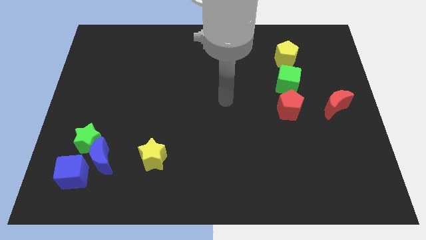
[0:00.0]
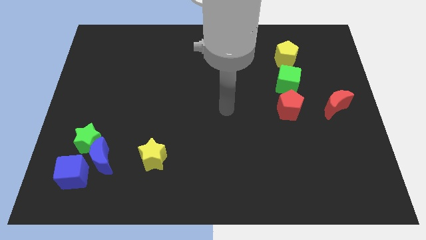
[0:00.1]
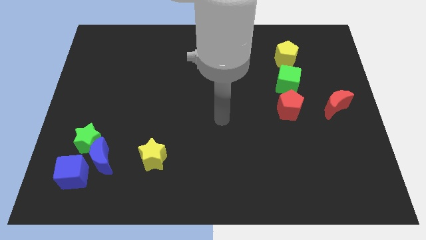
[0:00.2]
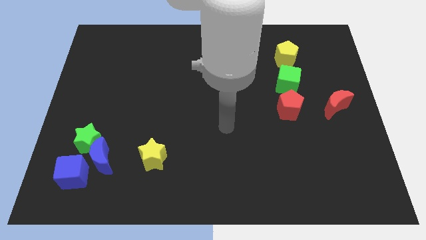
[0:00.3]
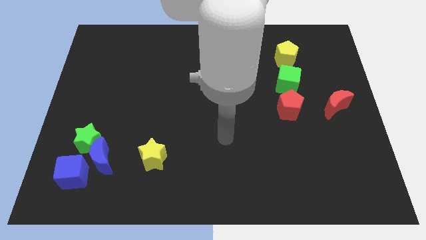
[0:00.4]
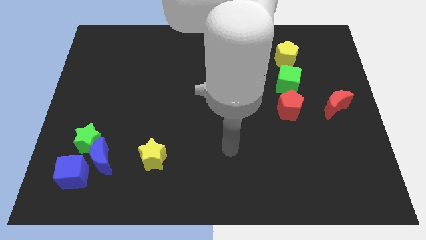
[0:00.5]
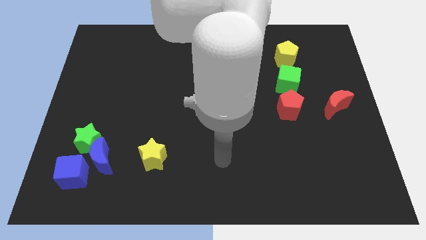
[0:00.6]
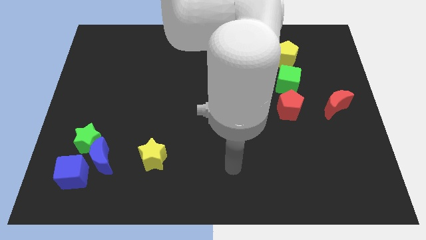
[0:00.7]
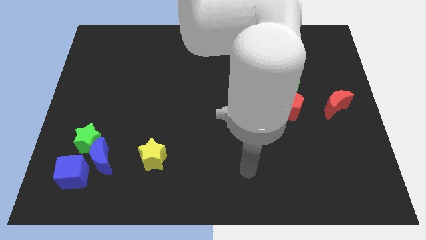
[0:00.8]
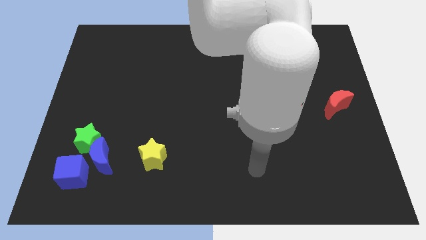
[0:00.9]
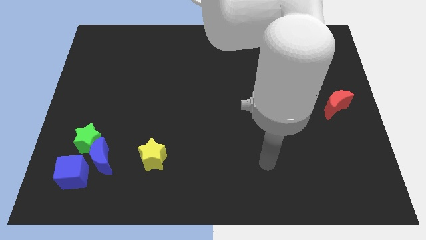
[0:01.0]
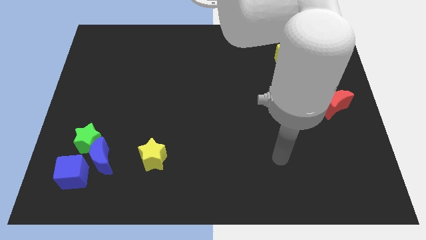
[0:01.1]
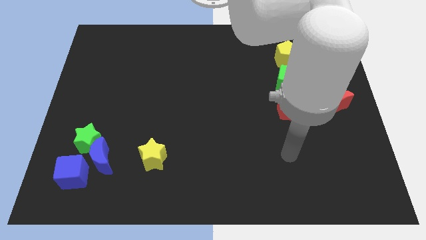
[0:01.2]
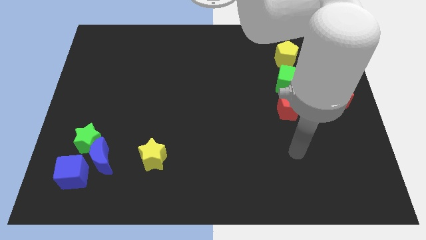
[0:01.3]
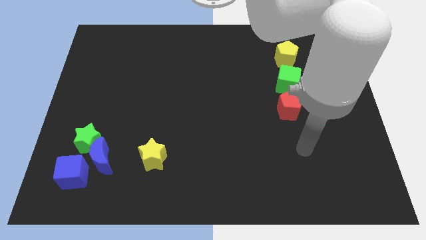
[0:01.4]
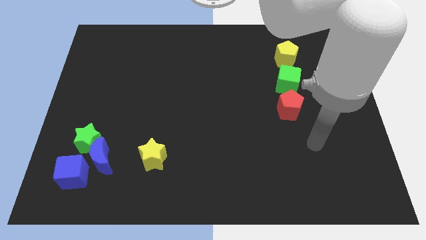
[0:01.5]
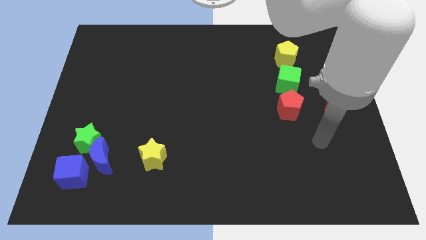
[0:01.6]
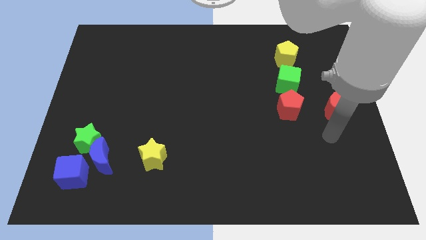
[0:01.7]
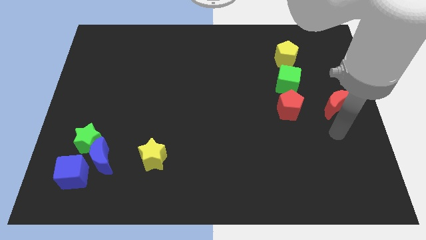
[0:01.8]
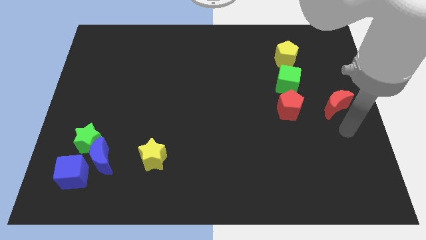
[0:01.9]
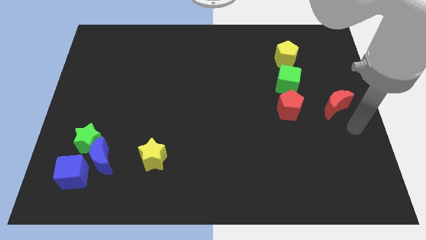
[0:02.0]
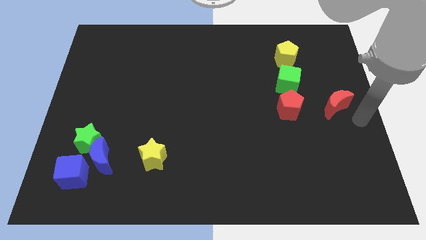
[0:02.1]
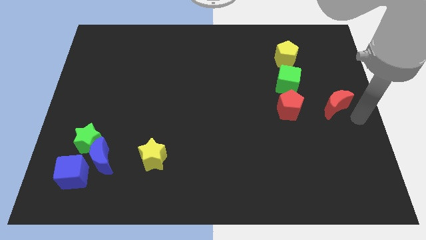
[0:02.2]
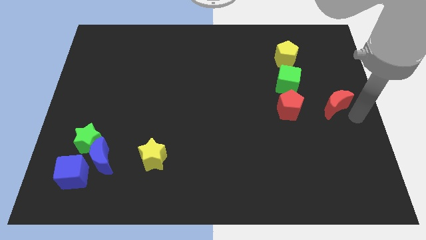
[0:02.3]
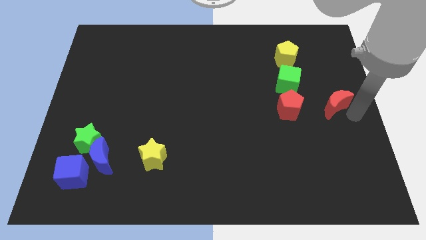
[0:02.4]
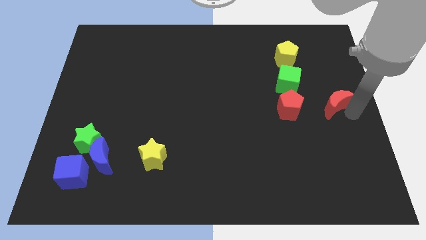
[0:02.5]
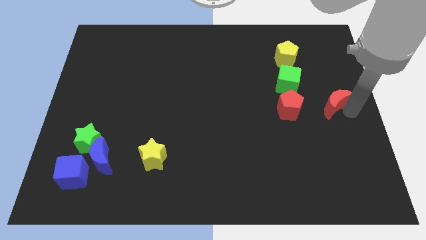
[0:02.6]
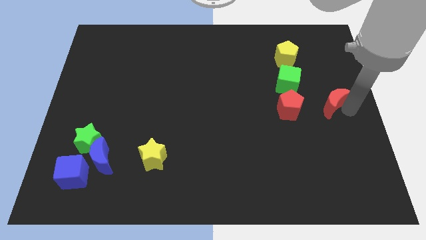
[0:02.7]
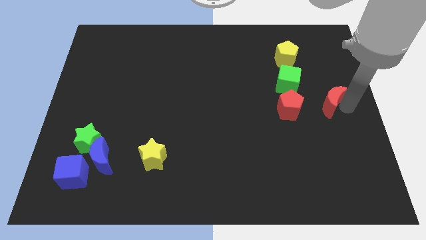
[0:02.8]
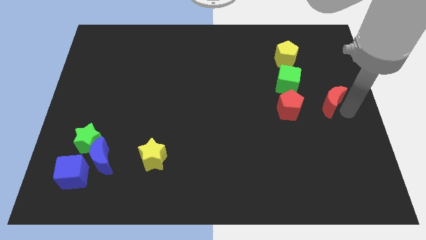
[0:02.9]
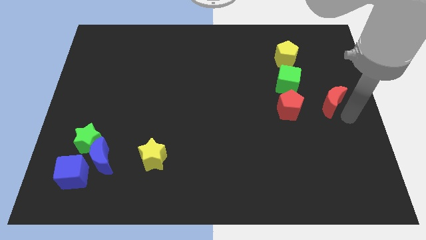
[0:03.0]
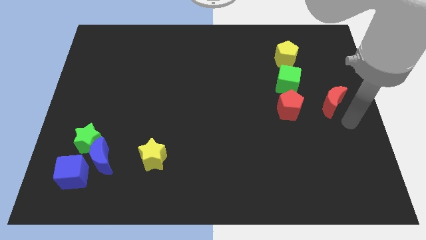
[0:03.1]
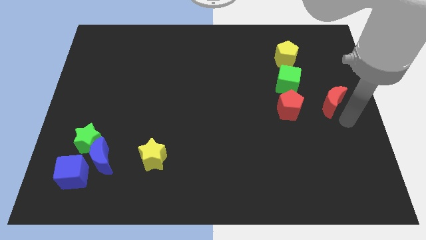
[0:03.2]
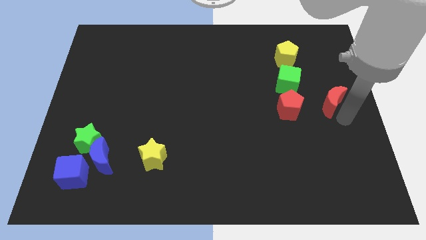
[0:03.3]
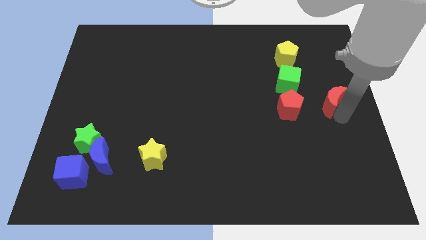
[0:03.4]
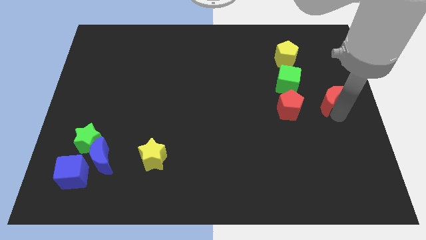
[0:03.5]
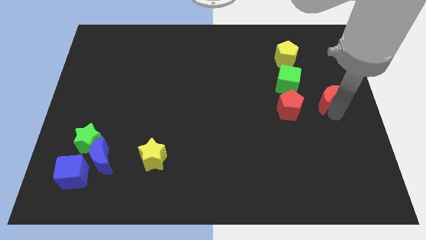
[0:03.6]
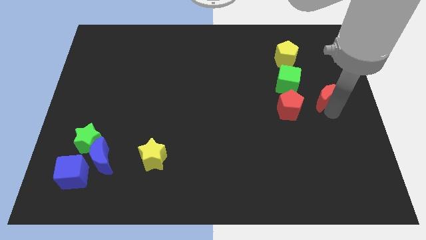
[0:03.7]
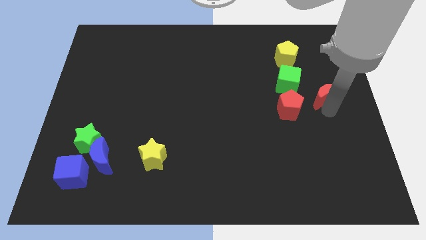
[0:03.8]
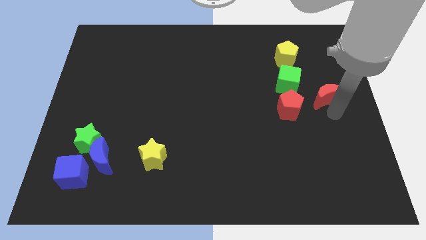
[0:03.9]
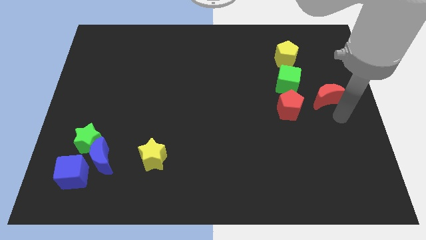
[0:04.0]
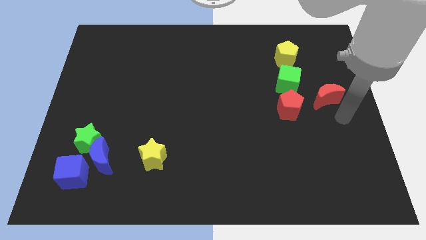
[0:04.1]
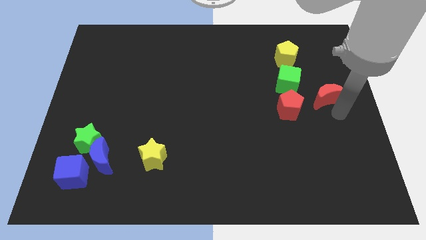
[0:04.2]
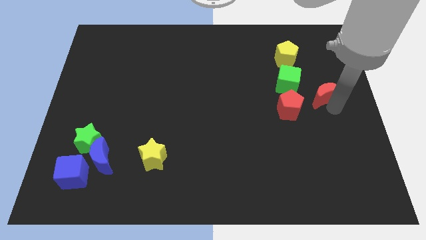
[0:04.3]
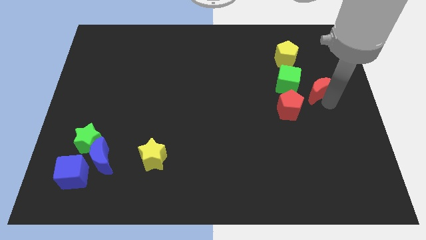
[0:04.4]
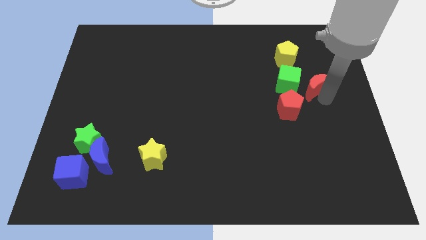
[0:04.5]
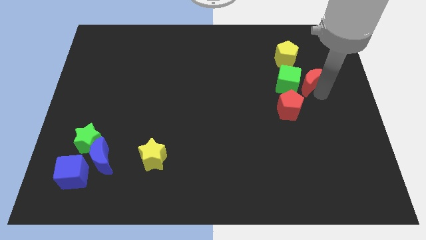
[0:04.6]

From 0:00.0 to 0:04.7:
slide the red moon up and then to the left a little bit

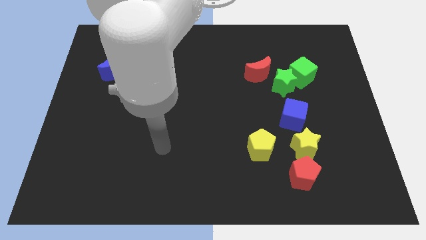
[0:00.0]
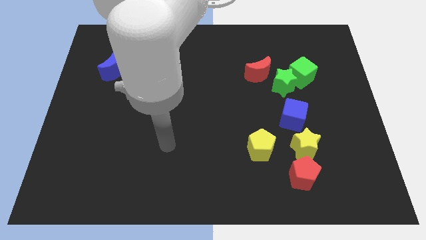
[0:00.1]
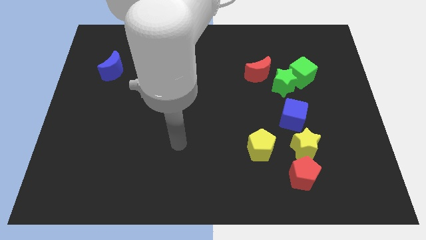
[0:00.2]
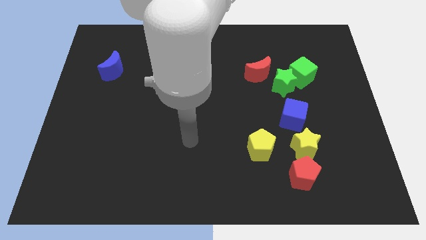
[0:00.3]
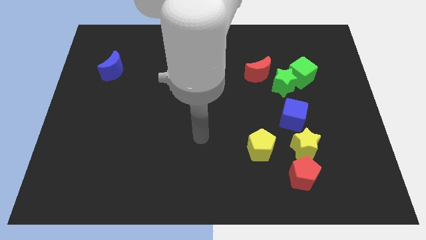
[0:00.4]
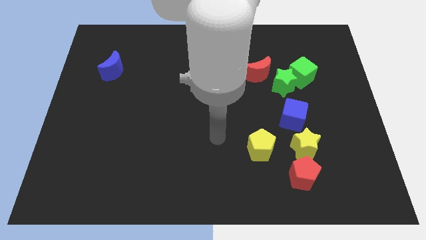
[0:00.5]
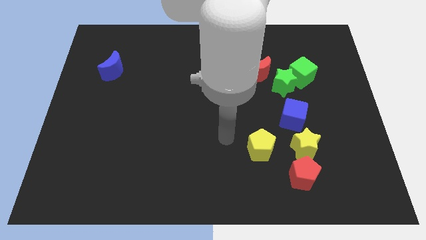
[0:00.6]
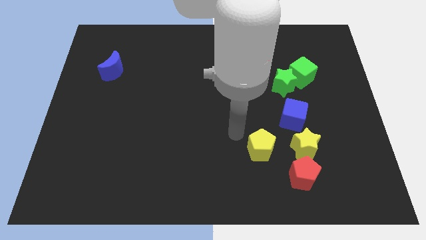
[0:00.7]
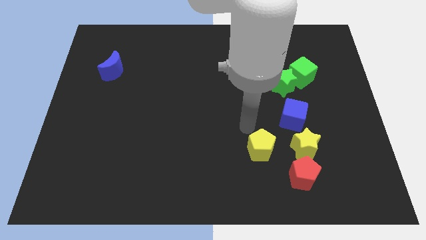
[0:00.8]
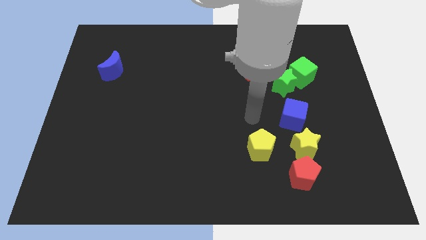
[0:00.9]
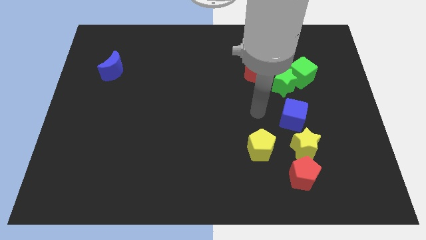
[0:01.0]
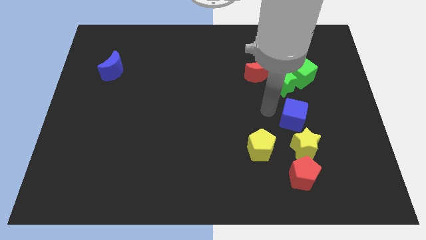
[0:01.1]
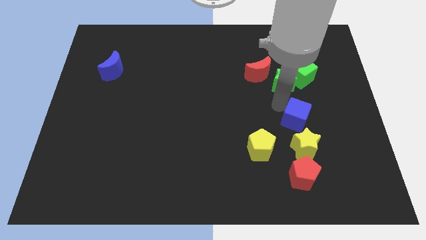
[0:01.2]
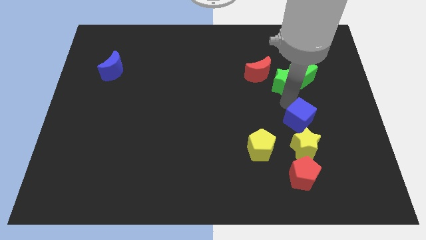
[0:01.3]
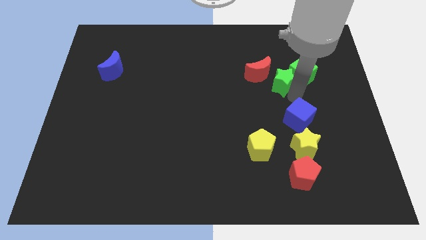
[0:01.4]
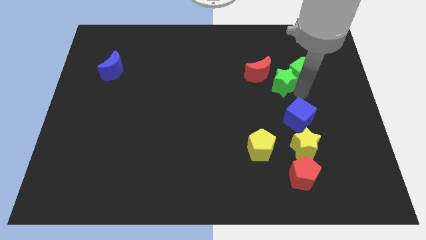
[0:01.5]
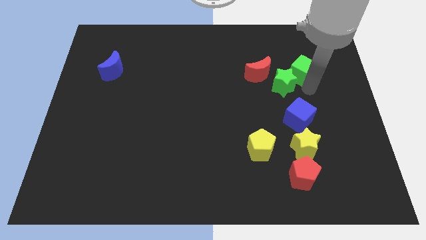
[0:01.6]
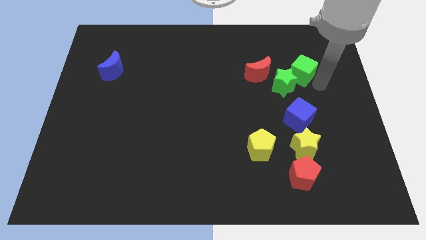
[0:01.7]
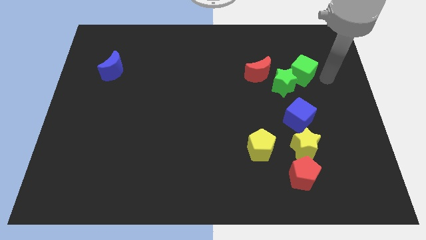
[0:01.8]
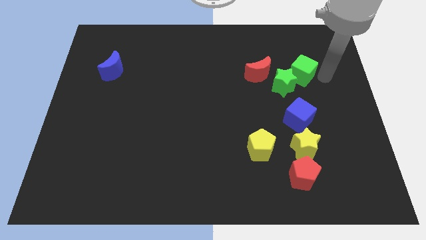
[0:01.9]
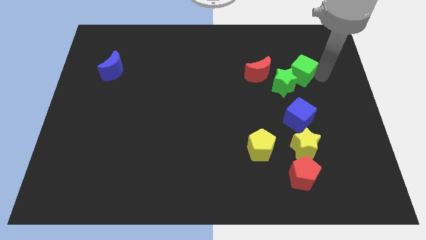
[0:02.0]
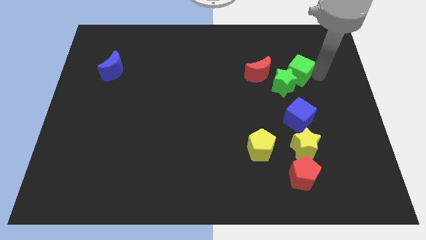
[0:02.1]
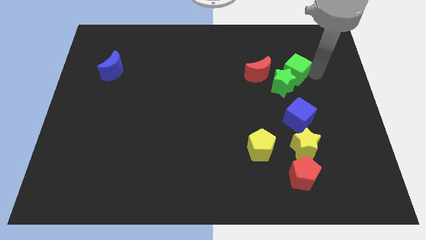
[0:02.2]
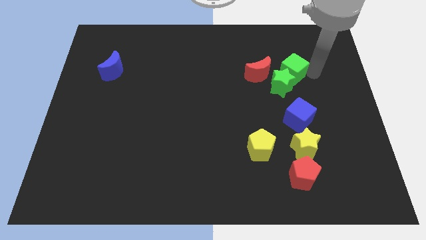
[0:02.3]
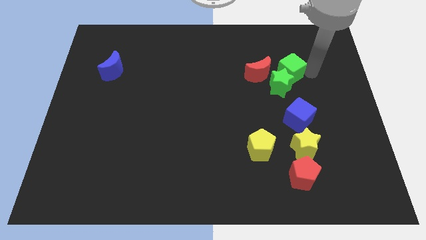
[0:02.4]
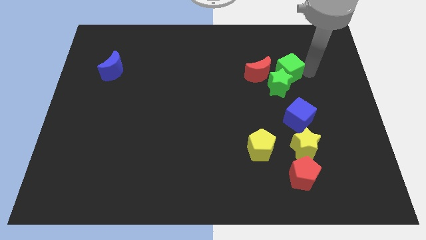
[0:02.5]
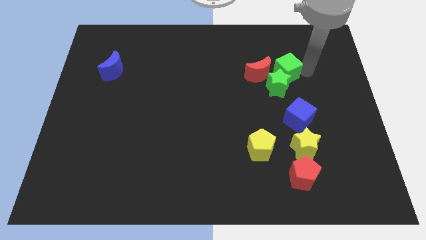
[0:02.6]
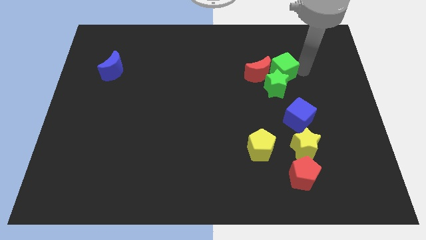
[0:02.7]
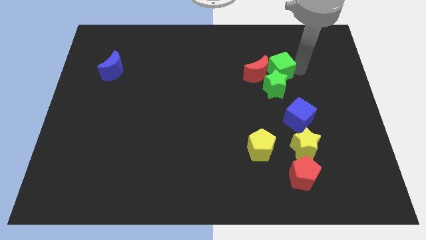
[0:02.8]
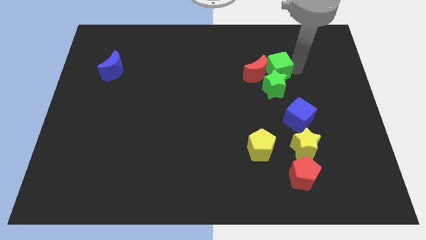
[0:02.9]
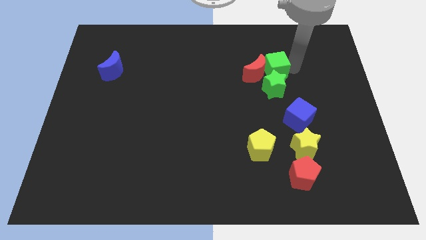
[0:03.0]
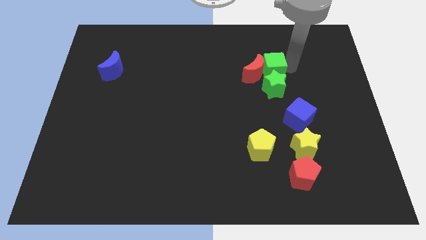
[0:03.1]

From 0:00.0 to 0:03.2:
move the green cube somewhat left

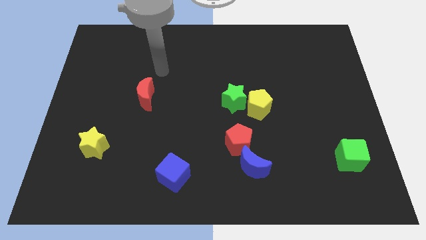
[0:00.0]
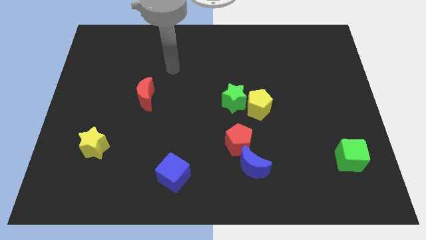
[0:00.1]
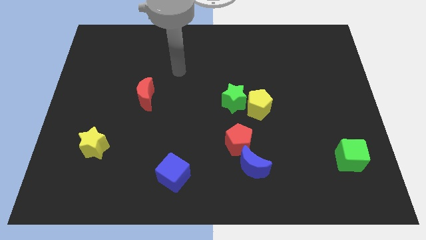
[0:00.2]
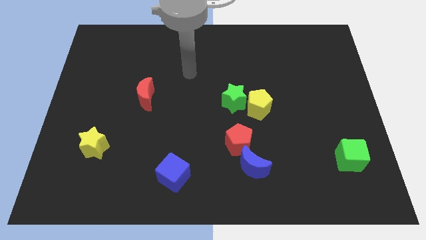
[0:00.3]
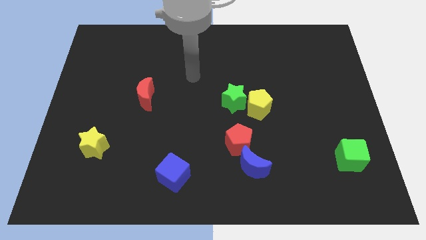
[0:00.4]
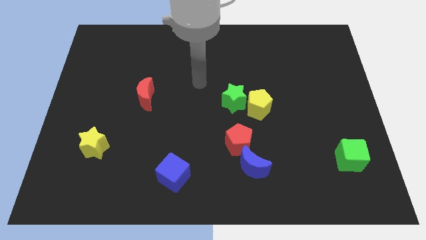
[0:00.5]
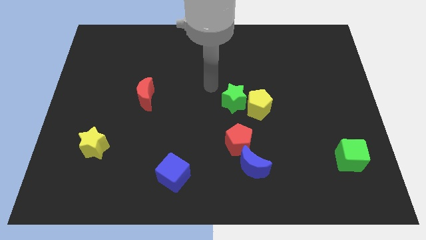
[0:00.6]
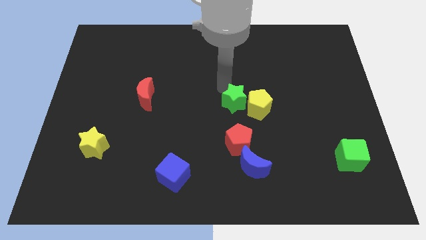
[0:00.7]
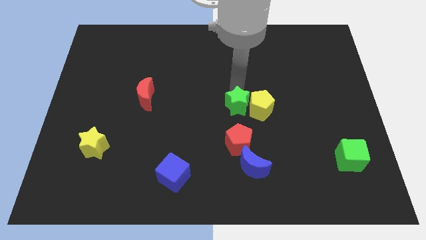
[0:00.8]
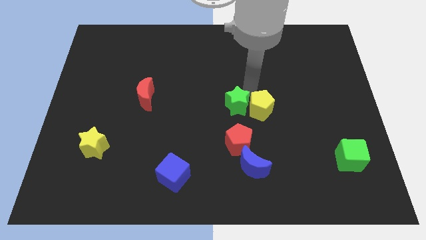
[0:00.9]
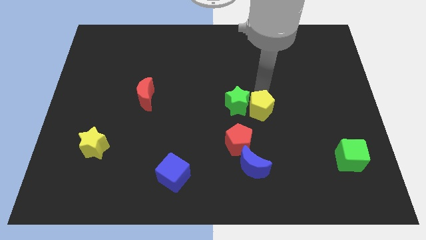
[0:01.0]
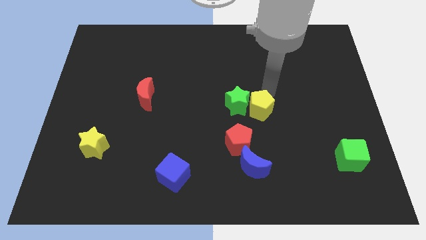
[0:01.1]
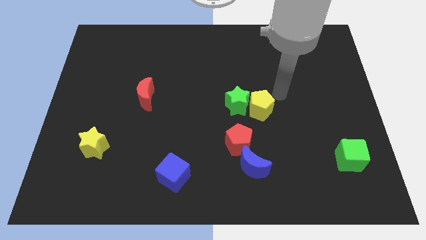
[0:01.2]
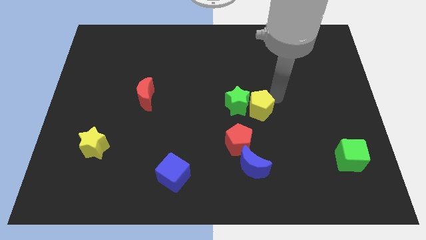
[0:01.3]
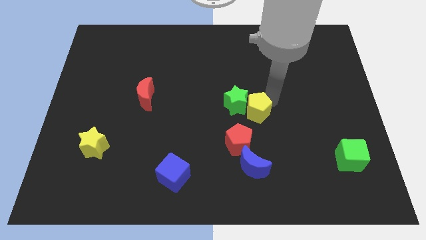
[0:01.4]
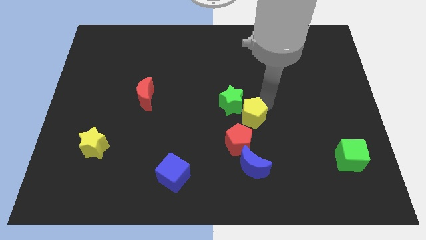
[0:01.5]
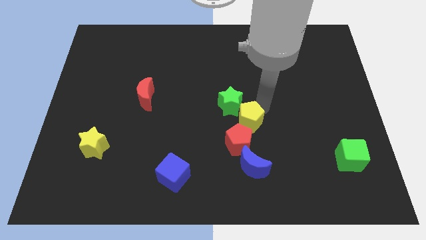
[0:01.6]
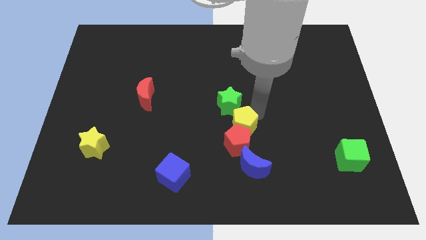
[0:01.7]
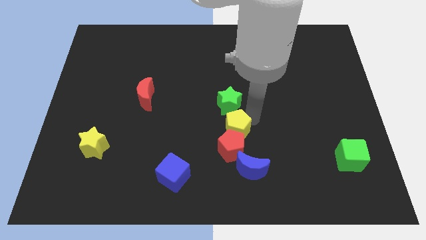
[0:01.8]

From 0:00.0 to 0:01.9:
move the yellow pentagon diagonally down and left a little bit
